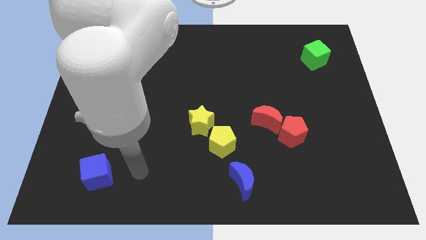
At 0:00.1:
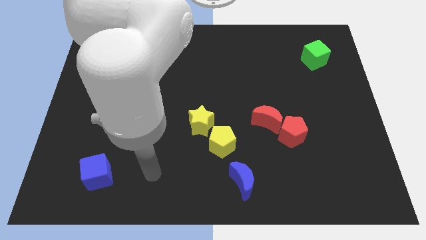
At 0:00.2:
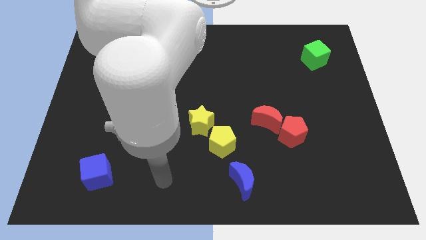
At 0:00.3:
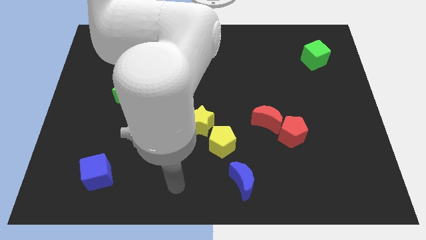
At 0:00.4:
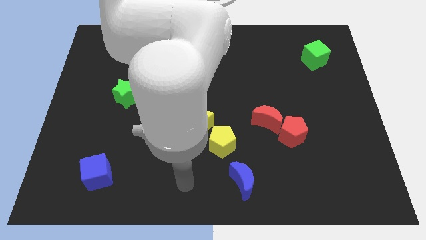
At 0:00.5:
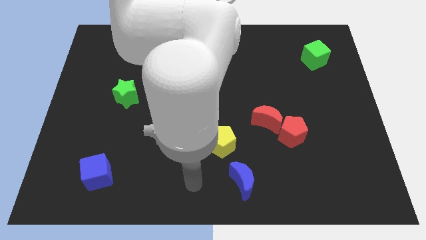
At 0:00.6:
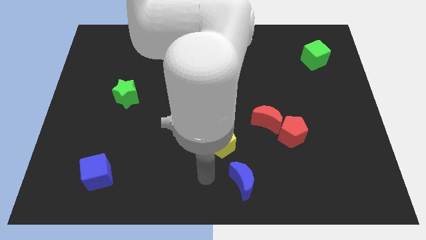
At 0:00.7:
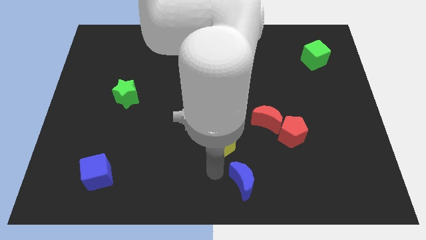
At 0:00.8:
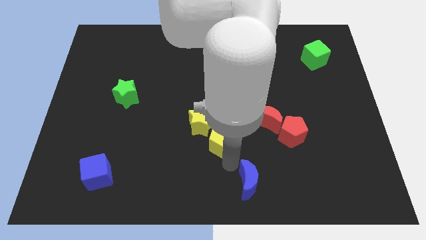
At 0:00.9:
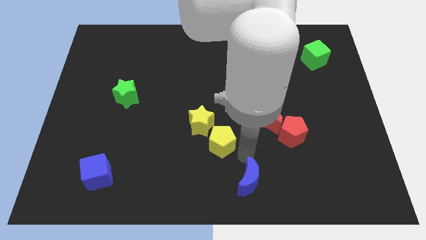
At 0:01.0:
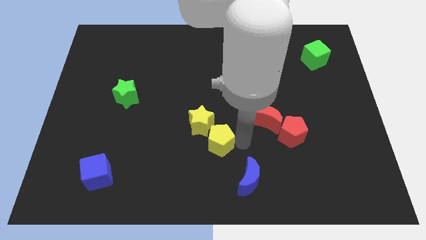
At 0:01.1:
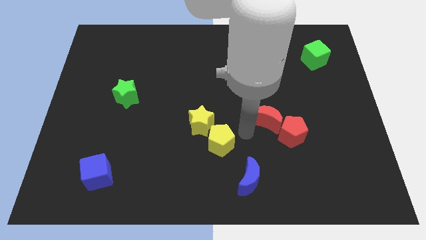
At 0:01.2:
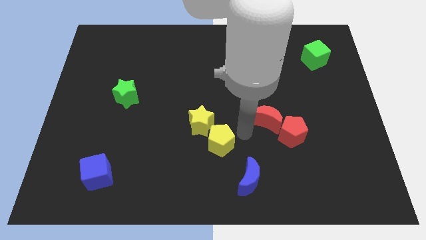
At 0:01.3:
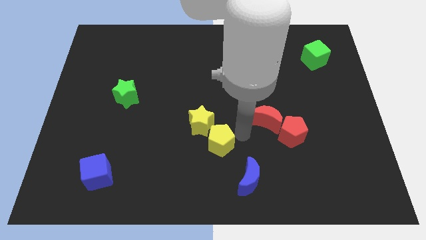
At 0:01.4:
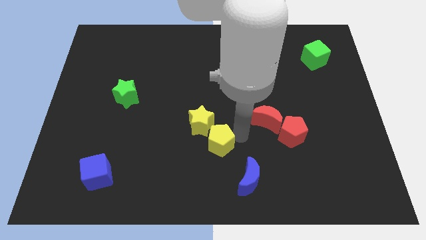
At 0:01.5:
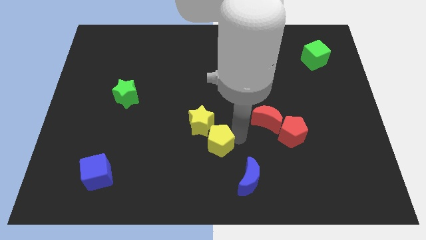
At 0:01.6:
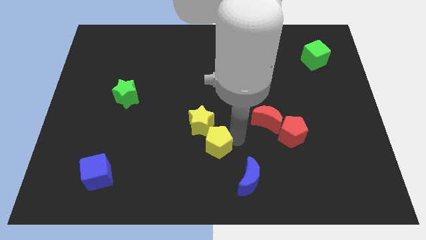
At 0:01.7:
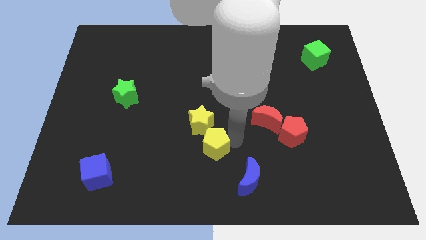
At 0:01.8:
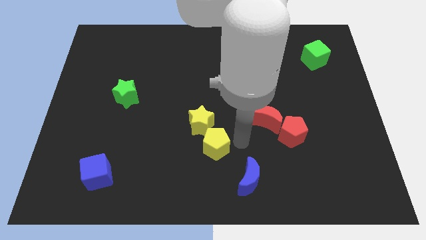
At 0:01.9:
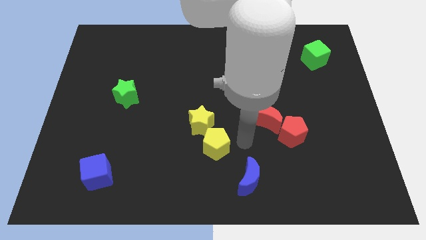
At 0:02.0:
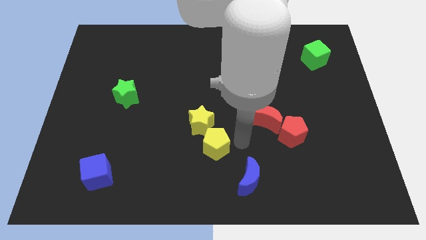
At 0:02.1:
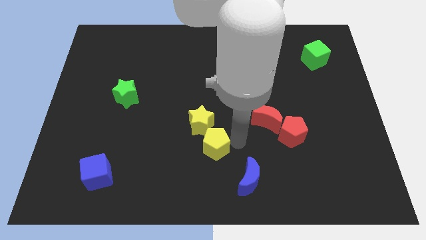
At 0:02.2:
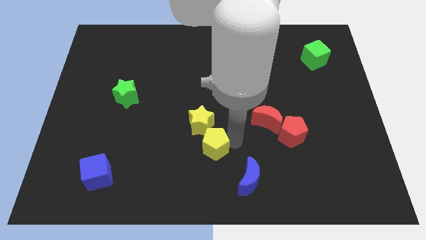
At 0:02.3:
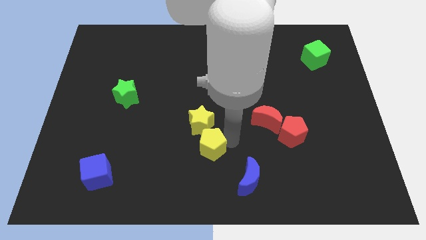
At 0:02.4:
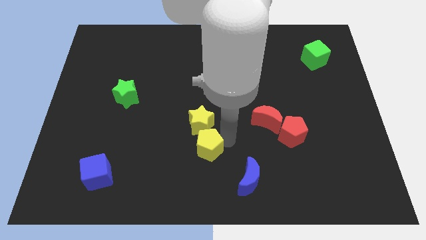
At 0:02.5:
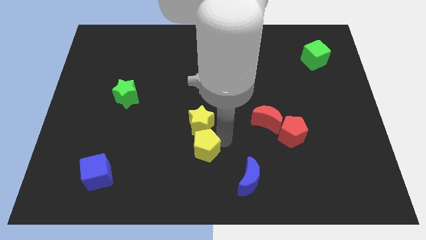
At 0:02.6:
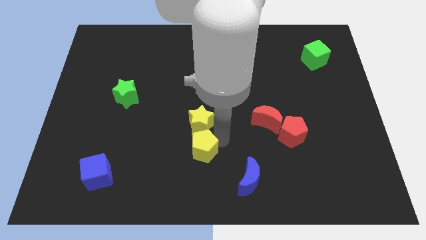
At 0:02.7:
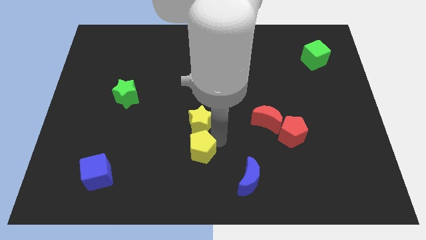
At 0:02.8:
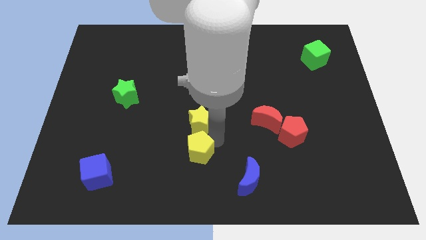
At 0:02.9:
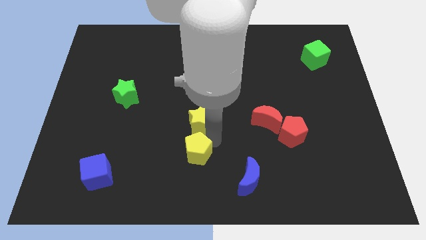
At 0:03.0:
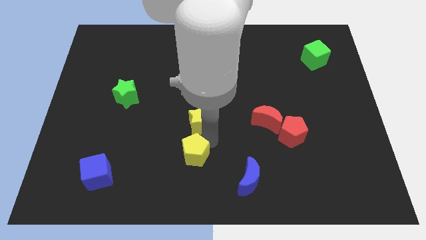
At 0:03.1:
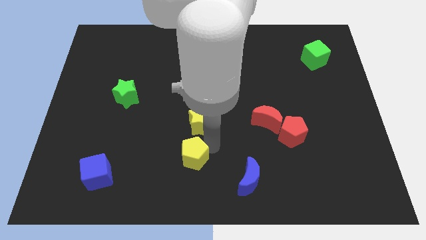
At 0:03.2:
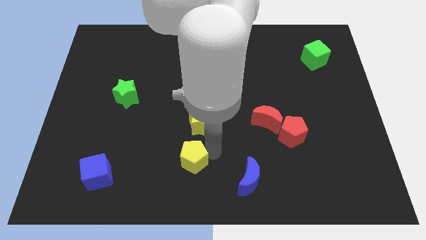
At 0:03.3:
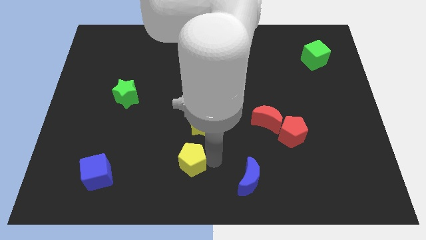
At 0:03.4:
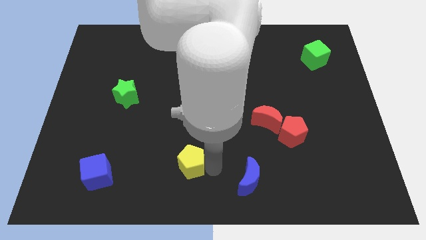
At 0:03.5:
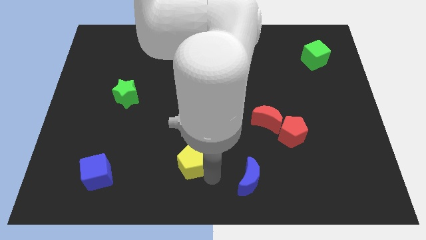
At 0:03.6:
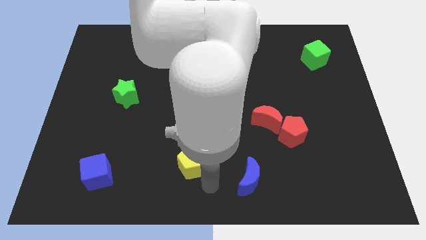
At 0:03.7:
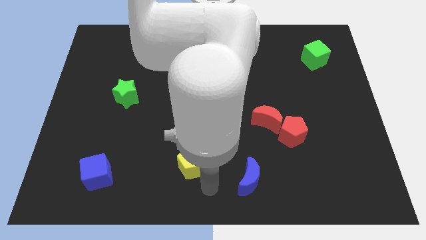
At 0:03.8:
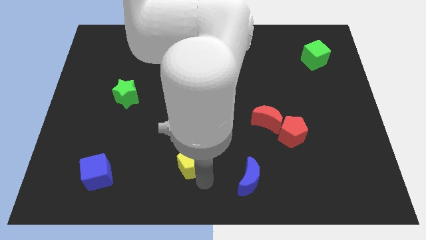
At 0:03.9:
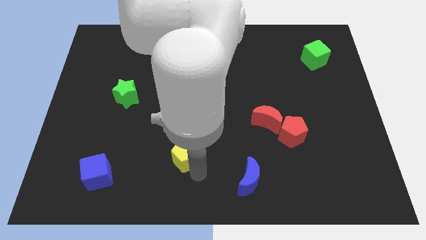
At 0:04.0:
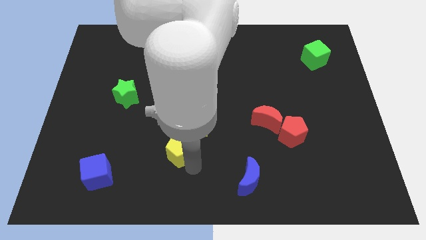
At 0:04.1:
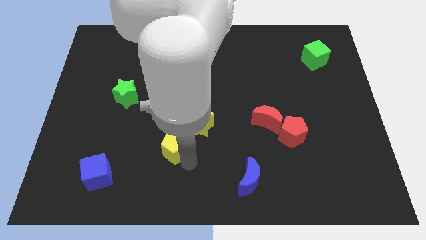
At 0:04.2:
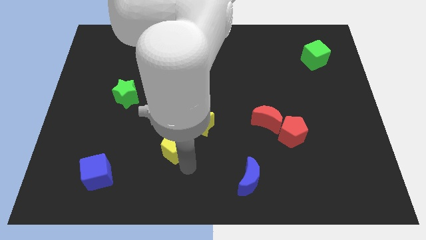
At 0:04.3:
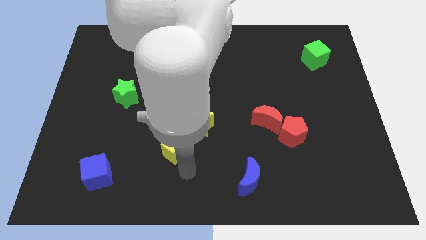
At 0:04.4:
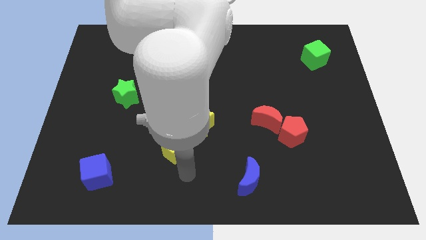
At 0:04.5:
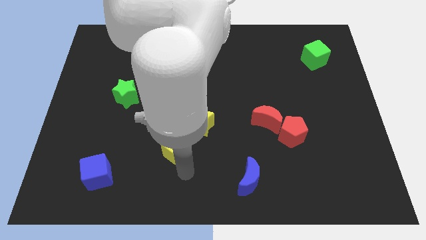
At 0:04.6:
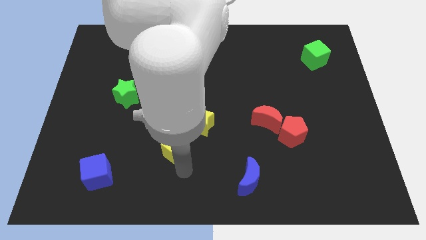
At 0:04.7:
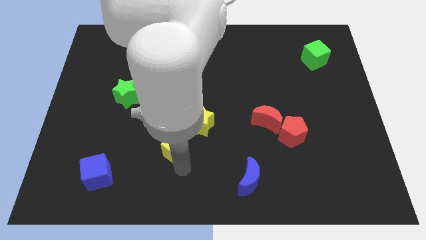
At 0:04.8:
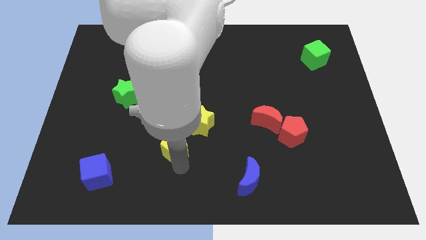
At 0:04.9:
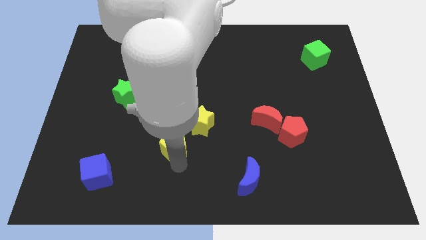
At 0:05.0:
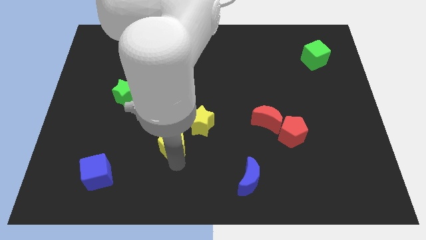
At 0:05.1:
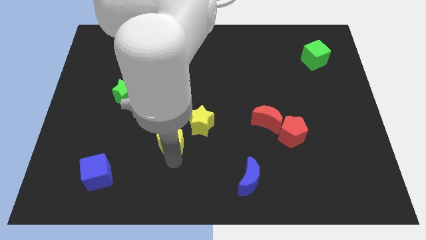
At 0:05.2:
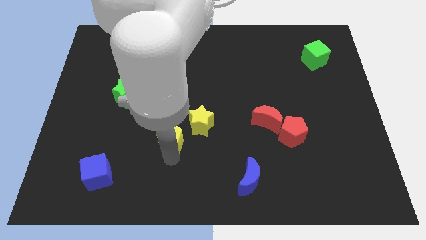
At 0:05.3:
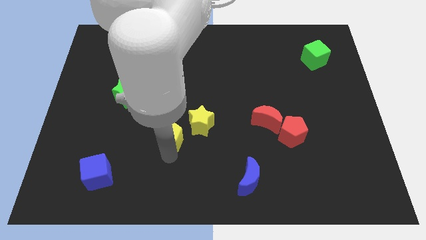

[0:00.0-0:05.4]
slightly slide the yellow pentagon up and left

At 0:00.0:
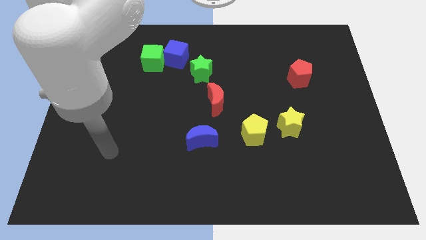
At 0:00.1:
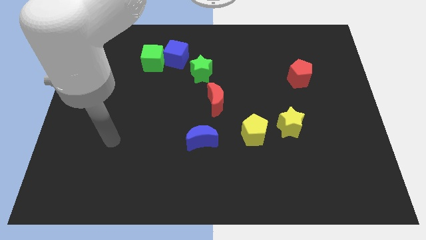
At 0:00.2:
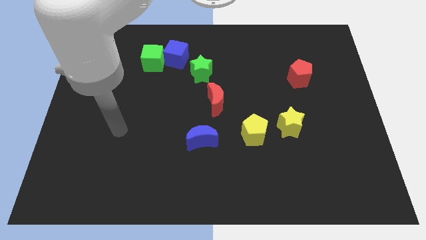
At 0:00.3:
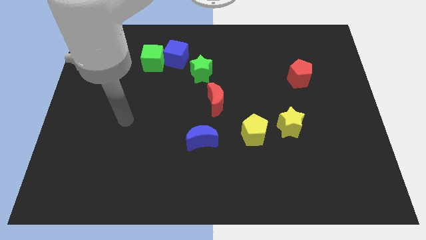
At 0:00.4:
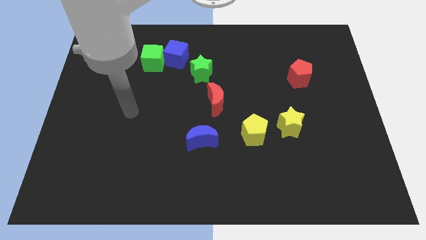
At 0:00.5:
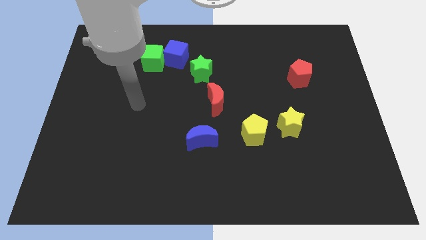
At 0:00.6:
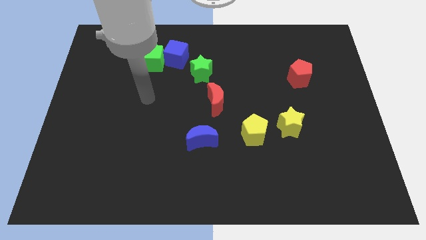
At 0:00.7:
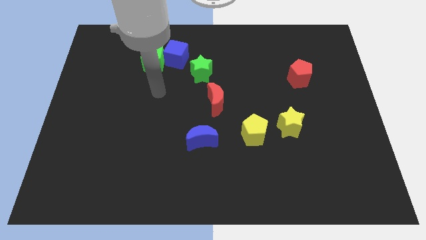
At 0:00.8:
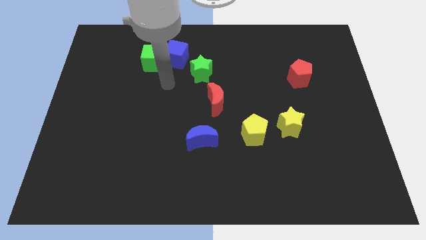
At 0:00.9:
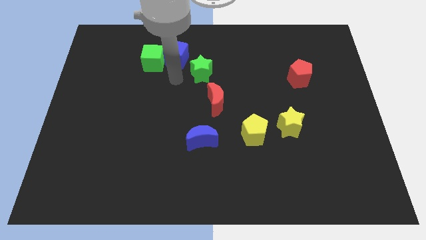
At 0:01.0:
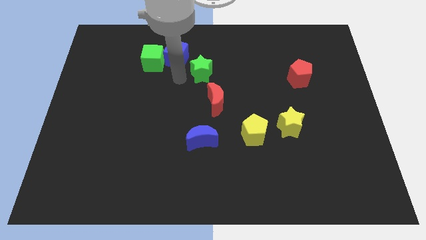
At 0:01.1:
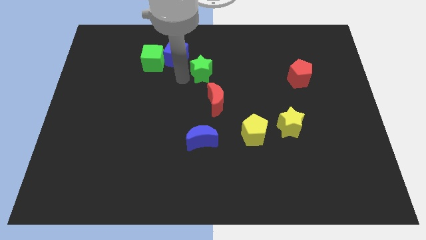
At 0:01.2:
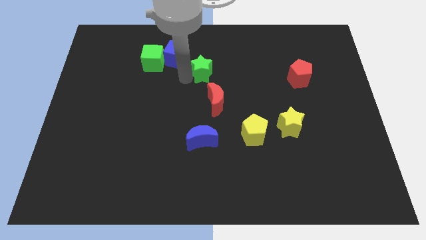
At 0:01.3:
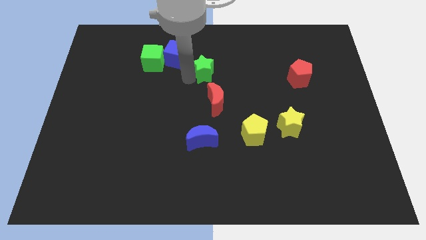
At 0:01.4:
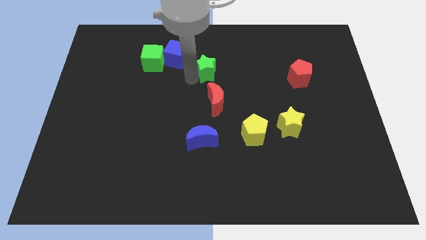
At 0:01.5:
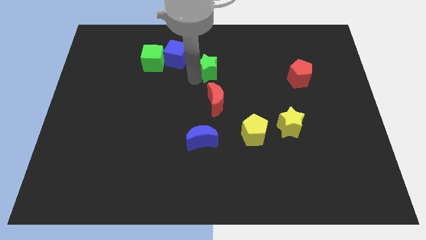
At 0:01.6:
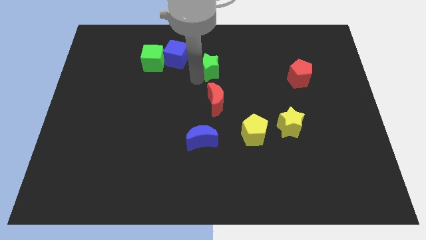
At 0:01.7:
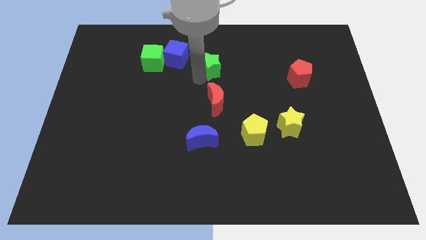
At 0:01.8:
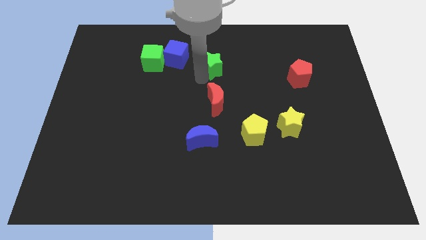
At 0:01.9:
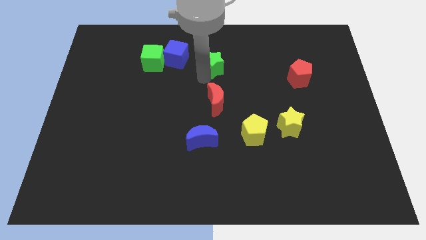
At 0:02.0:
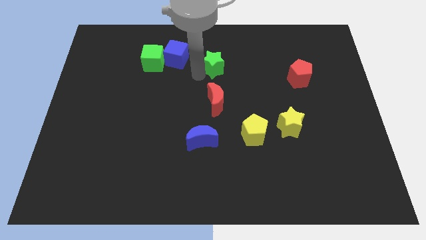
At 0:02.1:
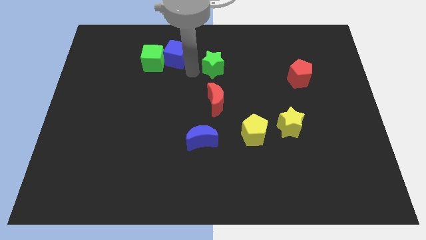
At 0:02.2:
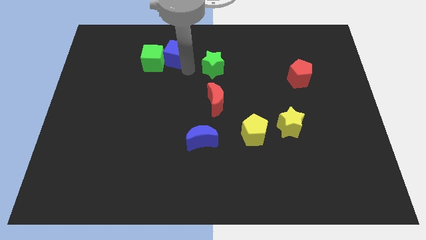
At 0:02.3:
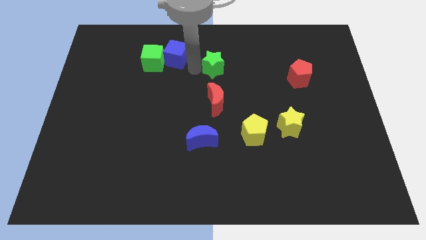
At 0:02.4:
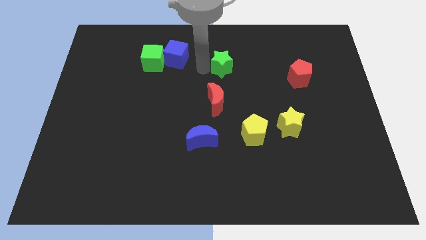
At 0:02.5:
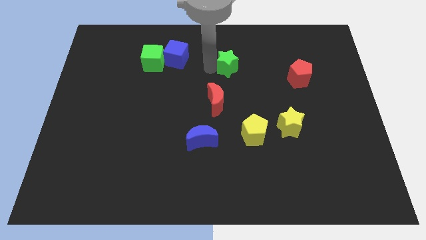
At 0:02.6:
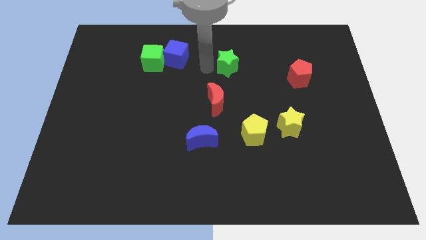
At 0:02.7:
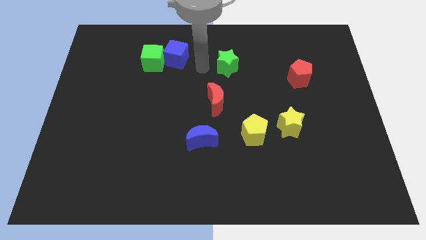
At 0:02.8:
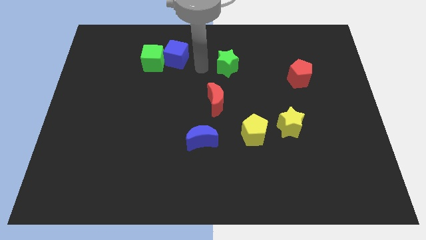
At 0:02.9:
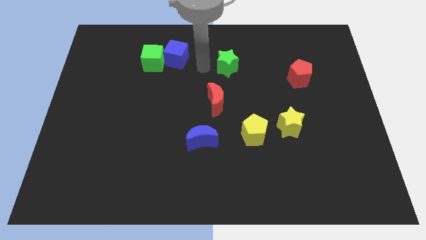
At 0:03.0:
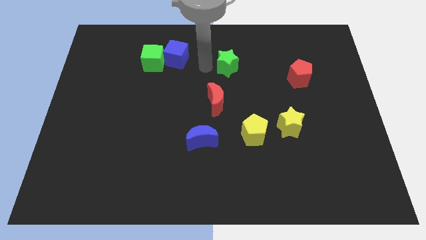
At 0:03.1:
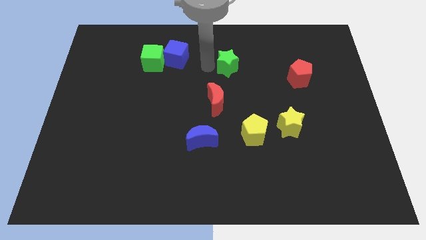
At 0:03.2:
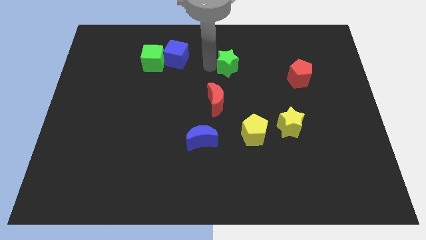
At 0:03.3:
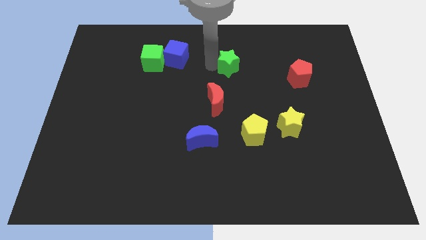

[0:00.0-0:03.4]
push the green star a little bit to the right
